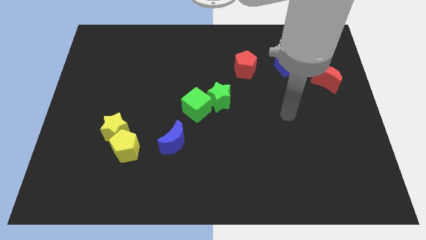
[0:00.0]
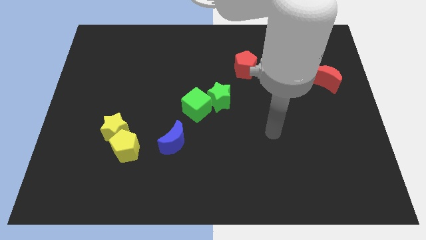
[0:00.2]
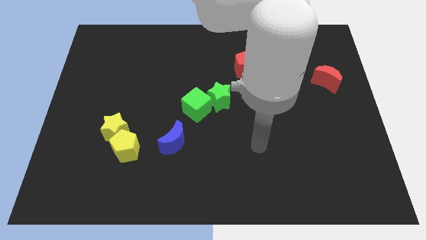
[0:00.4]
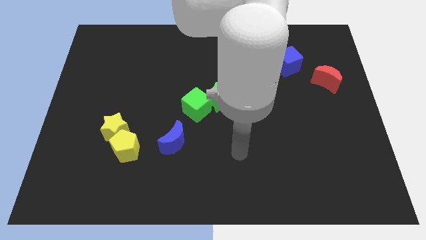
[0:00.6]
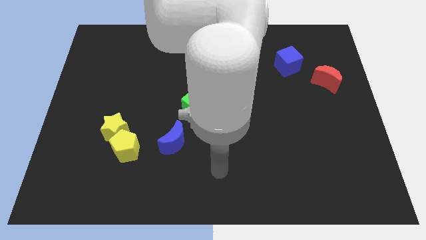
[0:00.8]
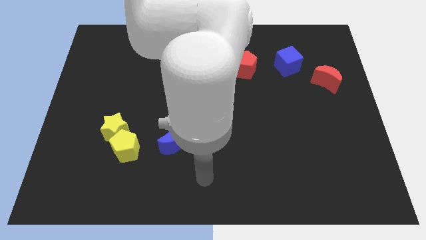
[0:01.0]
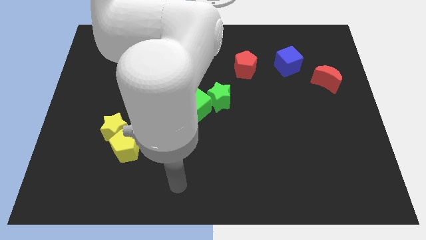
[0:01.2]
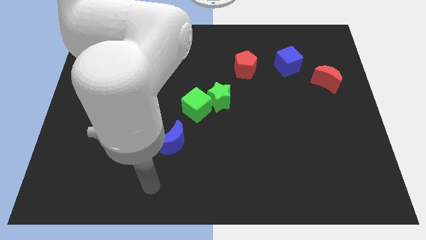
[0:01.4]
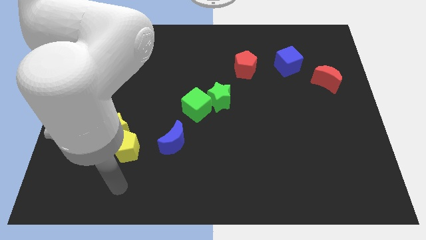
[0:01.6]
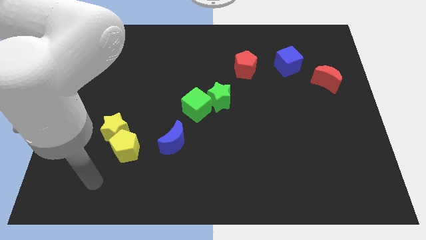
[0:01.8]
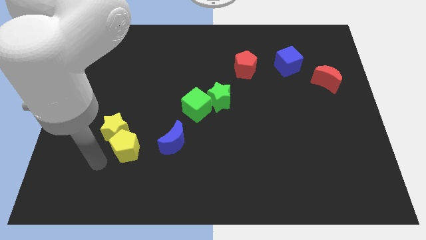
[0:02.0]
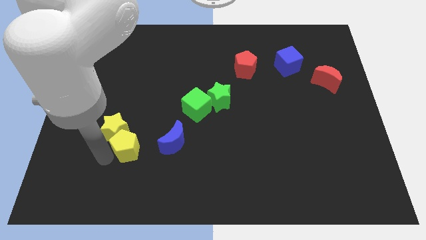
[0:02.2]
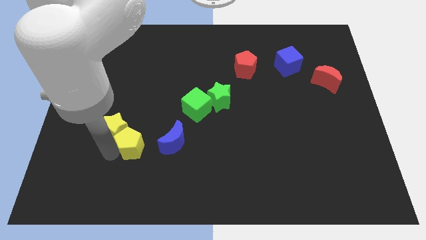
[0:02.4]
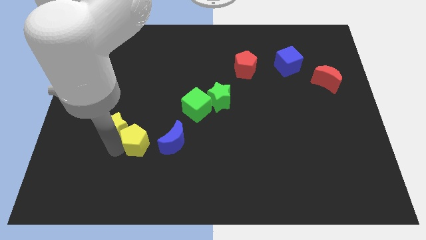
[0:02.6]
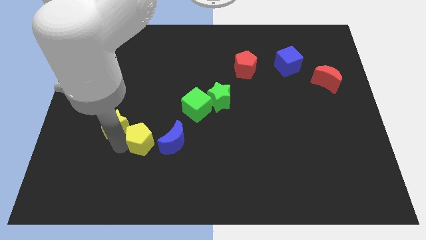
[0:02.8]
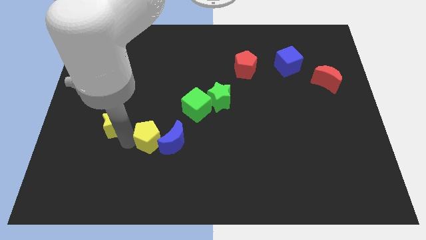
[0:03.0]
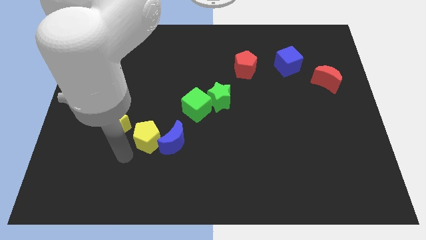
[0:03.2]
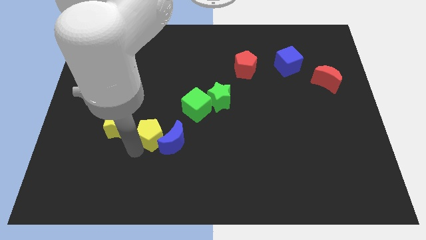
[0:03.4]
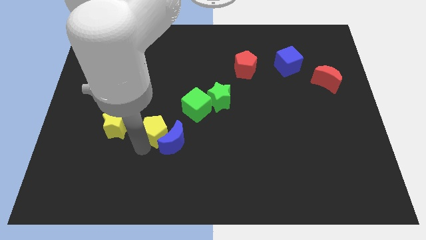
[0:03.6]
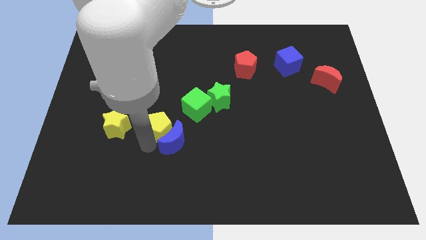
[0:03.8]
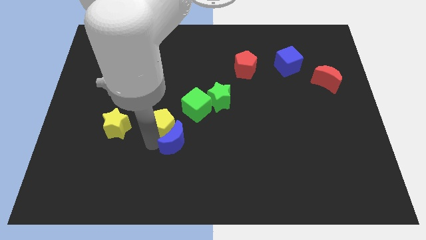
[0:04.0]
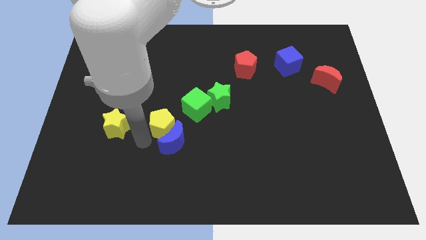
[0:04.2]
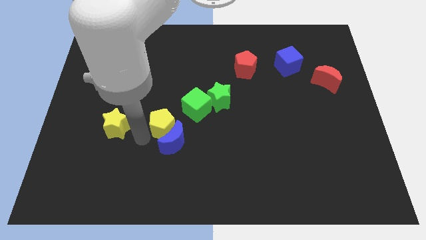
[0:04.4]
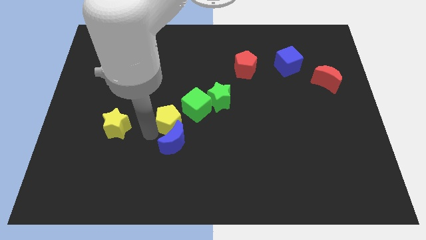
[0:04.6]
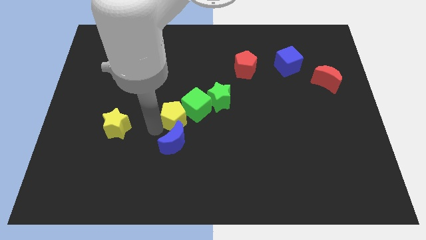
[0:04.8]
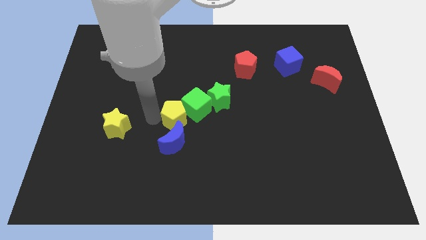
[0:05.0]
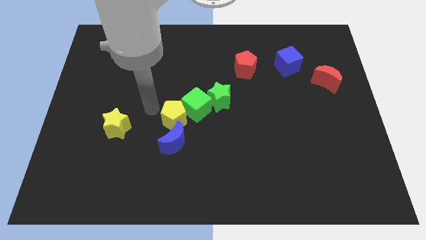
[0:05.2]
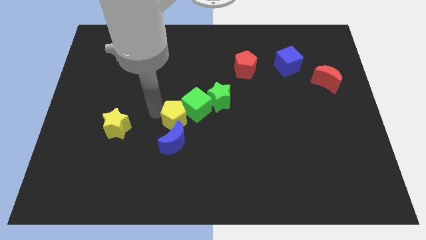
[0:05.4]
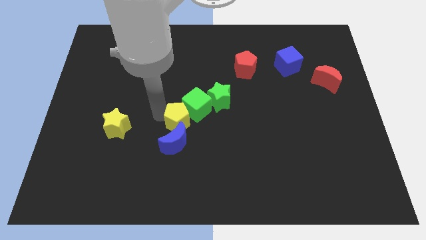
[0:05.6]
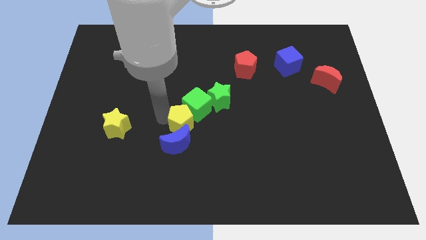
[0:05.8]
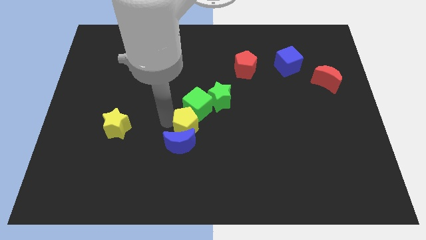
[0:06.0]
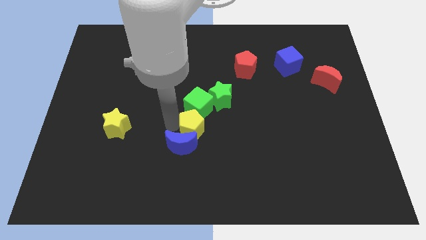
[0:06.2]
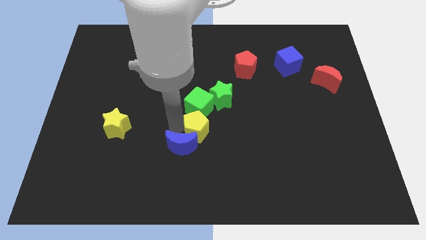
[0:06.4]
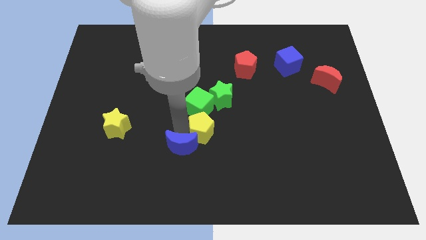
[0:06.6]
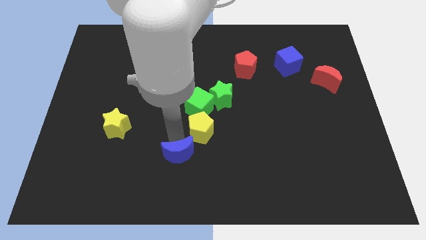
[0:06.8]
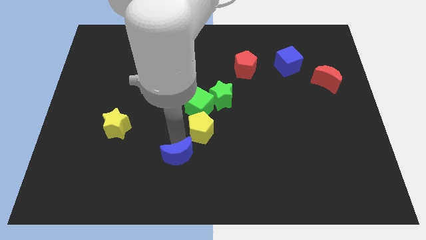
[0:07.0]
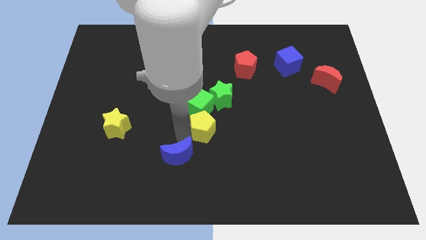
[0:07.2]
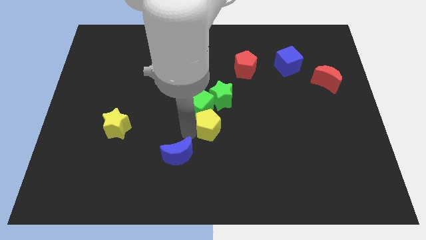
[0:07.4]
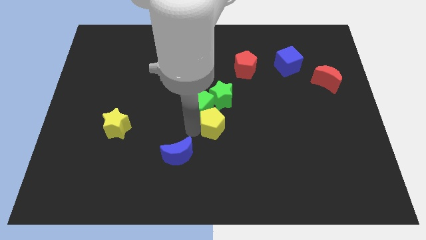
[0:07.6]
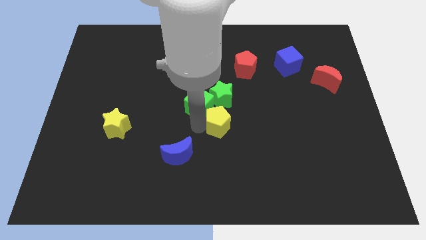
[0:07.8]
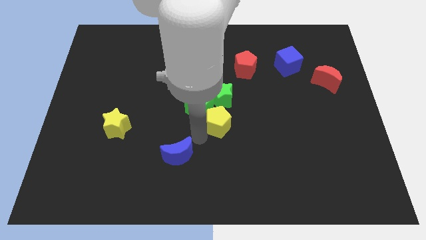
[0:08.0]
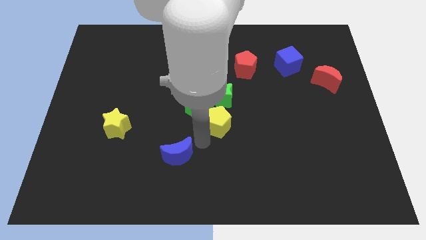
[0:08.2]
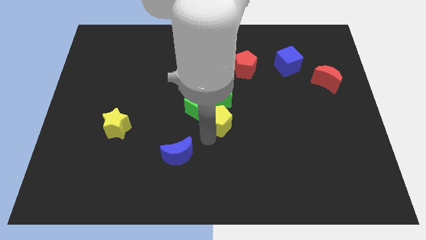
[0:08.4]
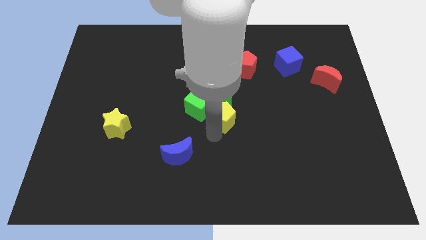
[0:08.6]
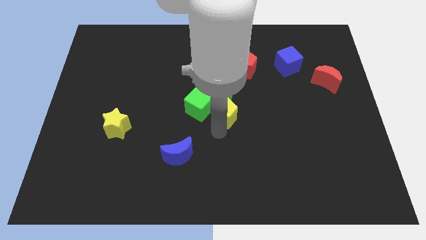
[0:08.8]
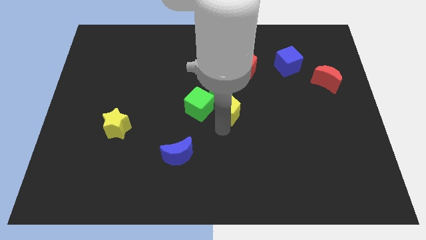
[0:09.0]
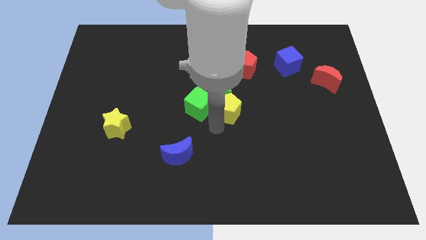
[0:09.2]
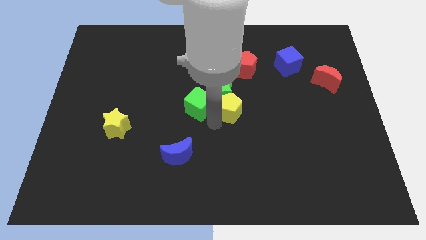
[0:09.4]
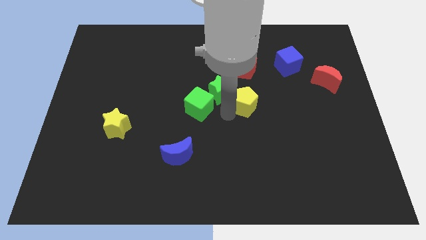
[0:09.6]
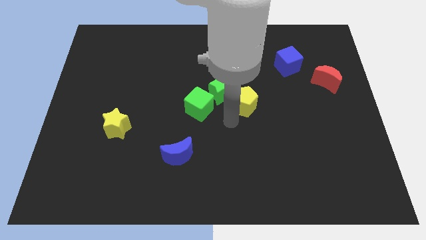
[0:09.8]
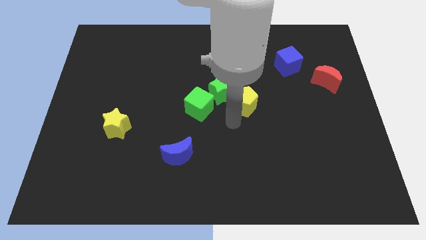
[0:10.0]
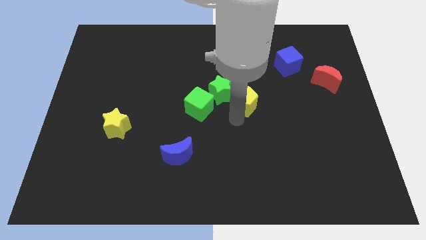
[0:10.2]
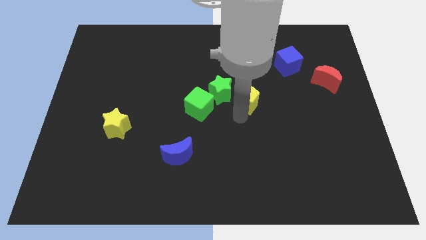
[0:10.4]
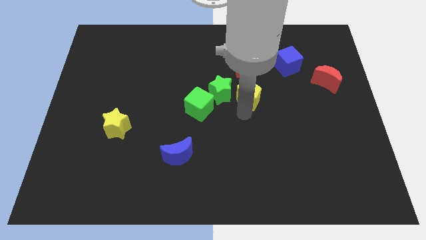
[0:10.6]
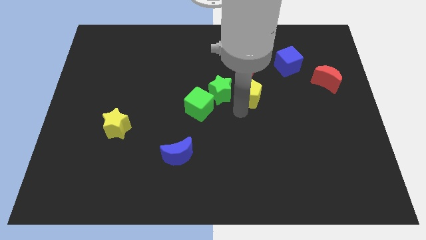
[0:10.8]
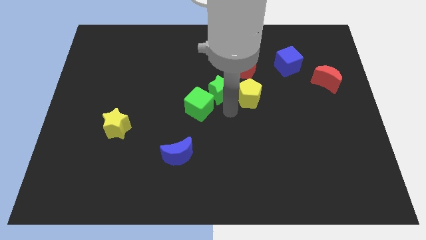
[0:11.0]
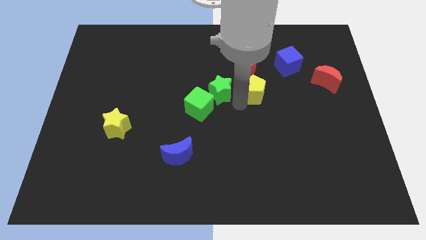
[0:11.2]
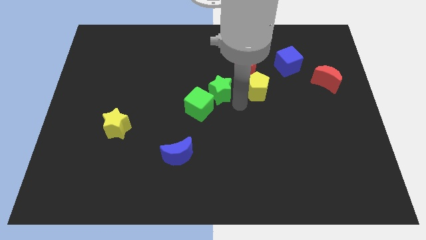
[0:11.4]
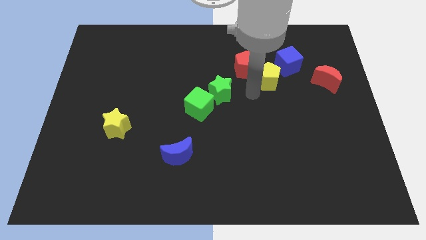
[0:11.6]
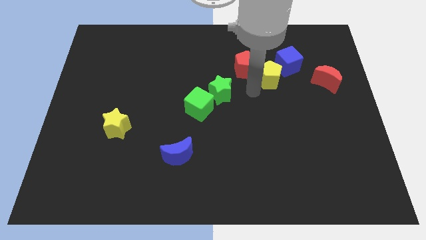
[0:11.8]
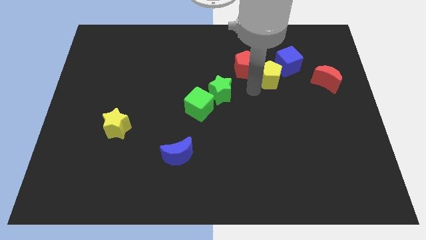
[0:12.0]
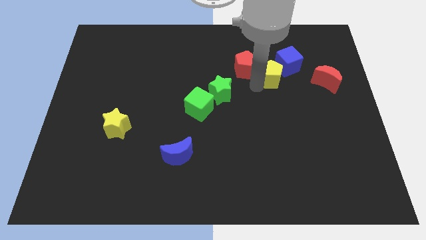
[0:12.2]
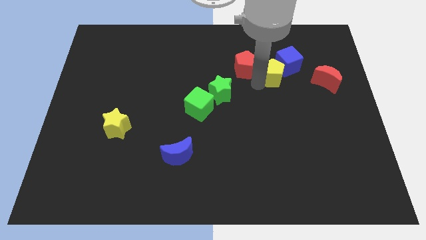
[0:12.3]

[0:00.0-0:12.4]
slide the yellow pentagon close to the blue cube

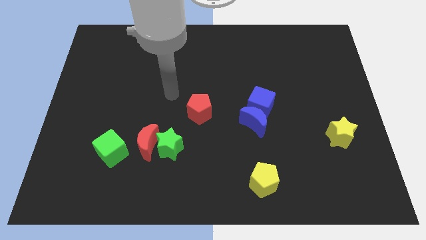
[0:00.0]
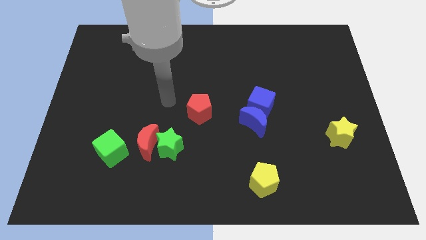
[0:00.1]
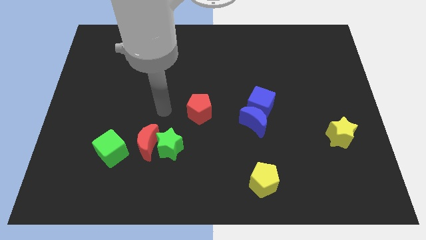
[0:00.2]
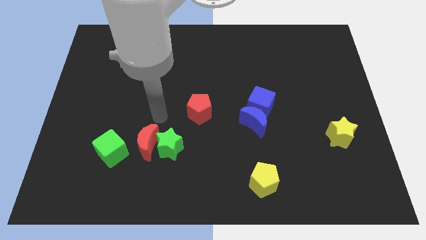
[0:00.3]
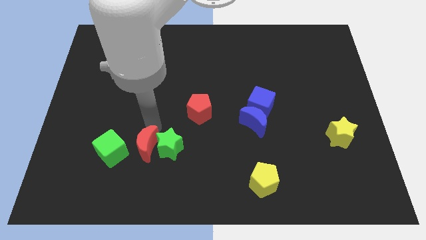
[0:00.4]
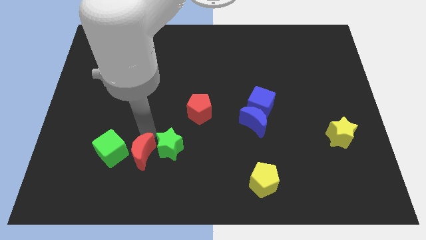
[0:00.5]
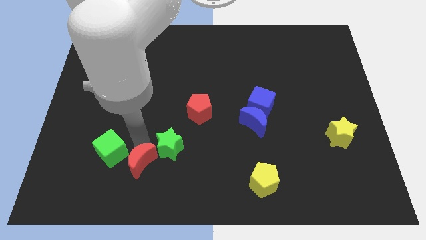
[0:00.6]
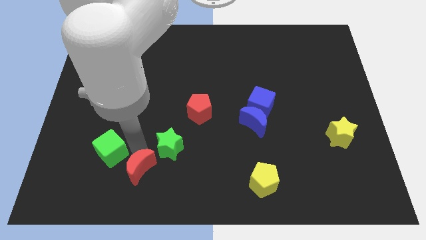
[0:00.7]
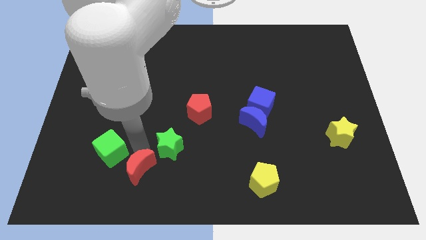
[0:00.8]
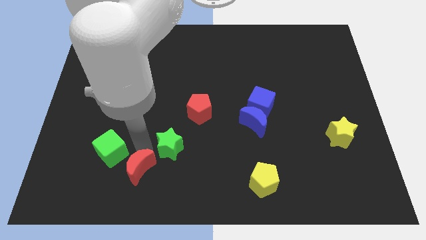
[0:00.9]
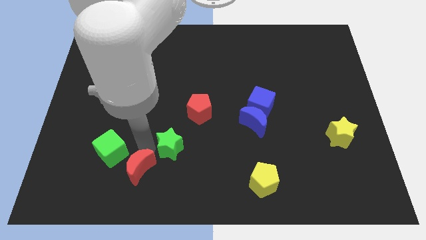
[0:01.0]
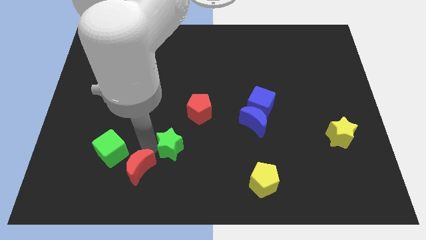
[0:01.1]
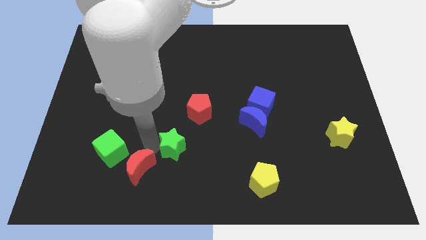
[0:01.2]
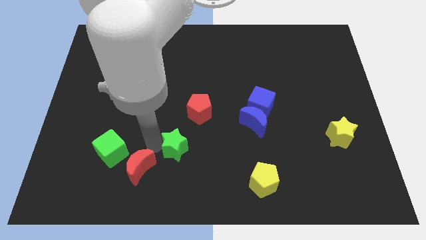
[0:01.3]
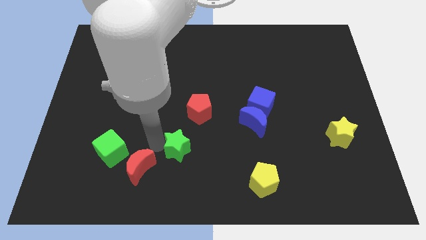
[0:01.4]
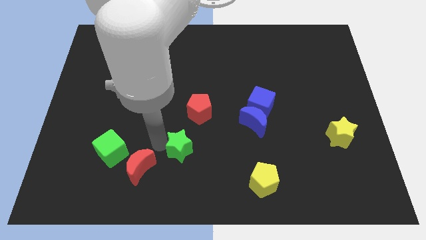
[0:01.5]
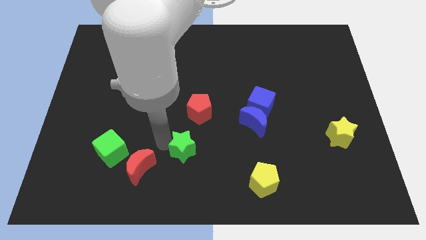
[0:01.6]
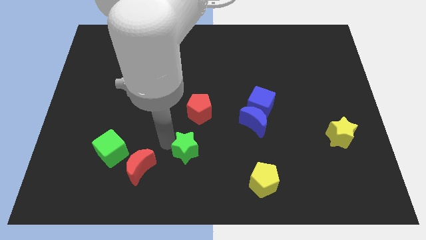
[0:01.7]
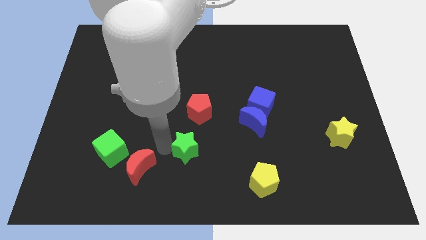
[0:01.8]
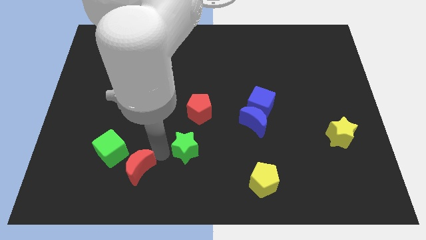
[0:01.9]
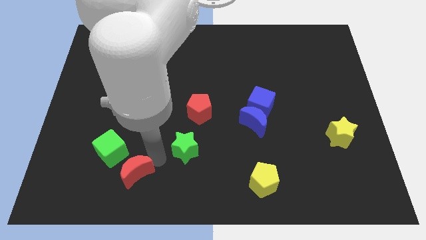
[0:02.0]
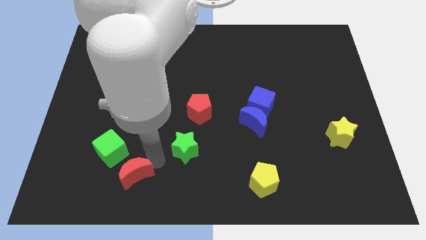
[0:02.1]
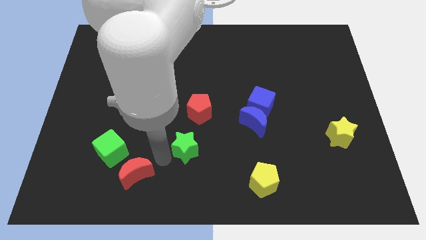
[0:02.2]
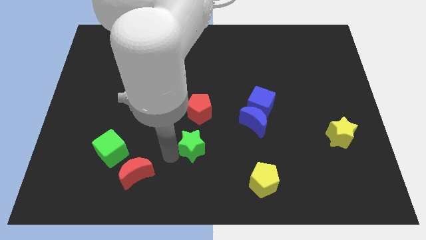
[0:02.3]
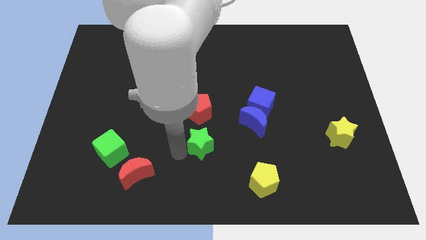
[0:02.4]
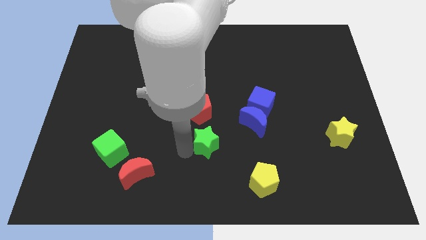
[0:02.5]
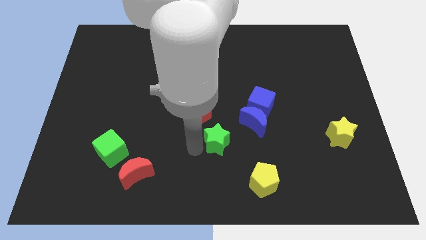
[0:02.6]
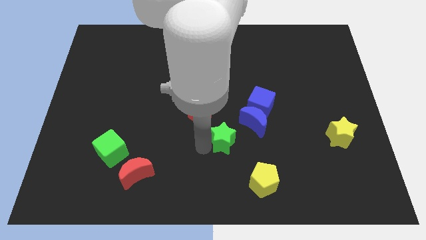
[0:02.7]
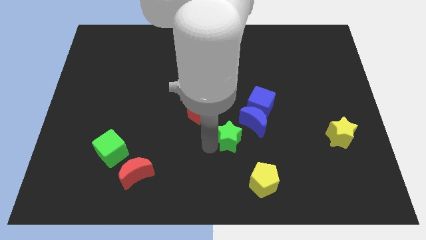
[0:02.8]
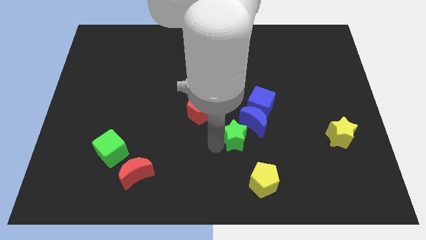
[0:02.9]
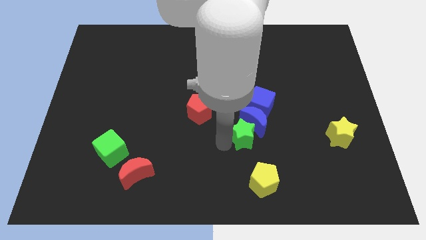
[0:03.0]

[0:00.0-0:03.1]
put the green star towards the blue moon
